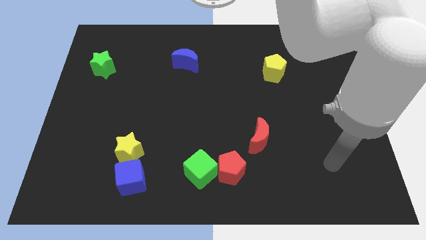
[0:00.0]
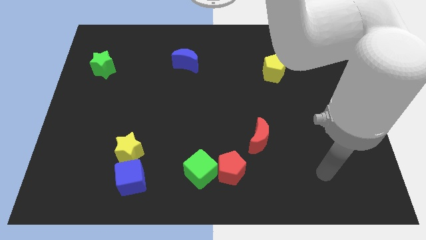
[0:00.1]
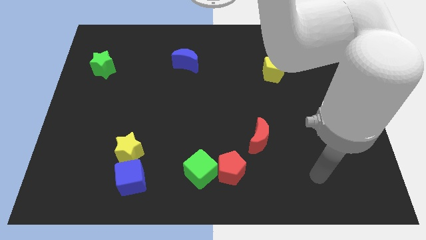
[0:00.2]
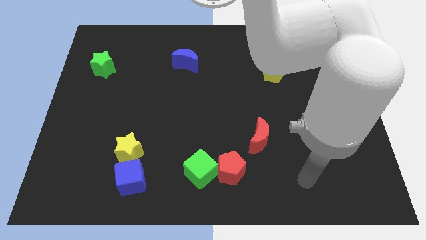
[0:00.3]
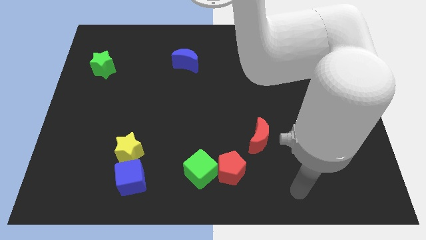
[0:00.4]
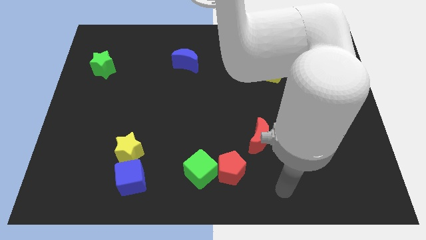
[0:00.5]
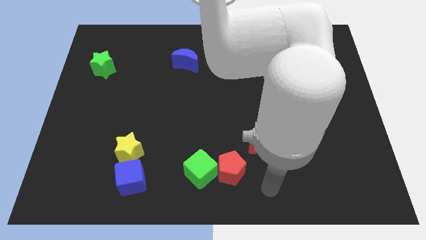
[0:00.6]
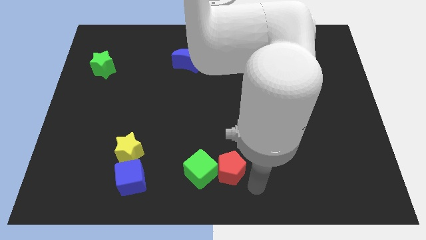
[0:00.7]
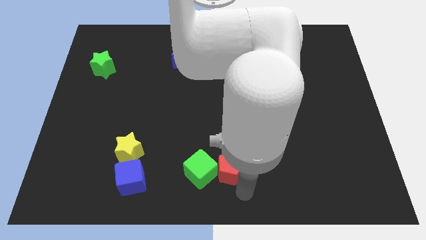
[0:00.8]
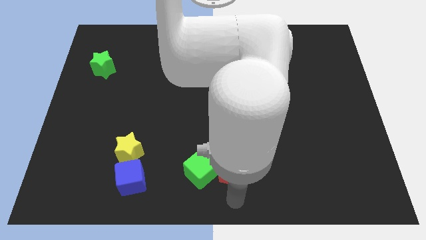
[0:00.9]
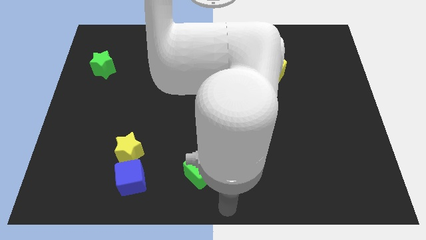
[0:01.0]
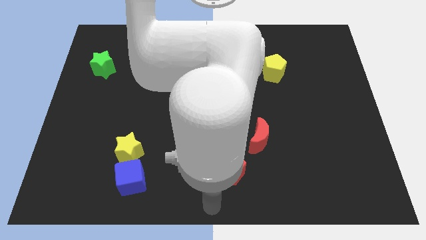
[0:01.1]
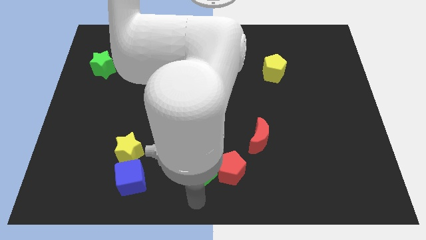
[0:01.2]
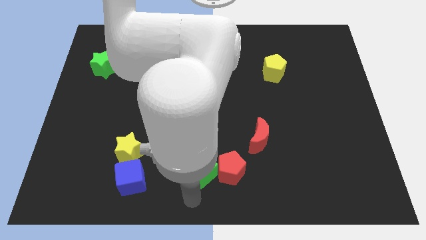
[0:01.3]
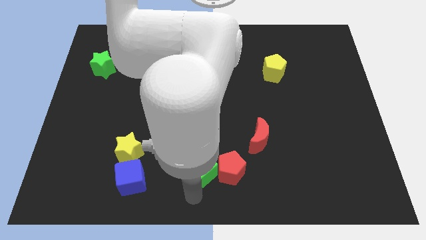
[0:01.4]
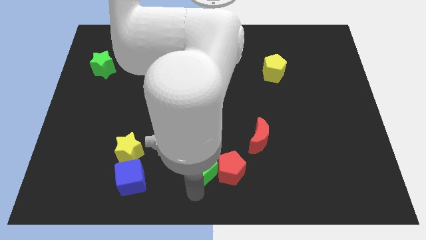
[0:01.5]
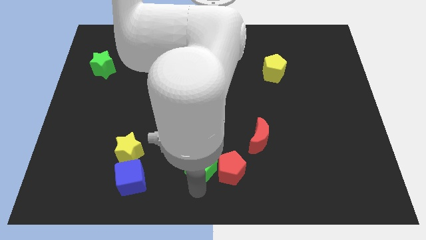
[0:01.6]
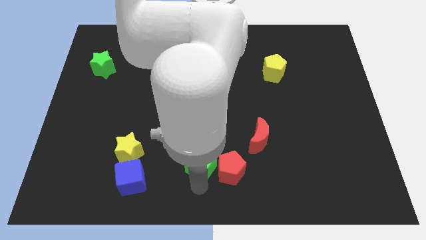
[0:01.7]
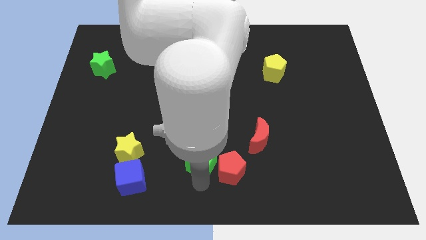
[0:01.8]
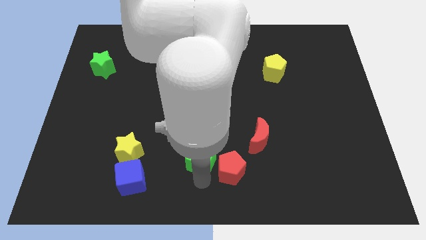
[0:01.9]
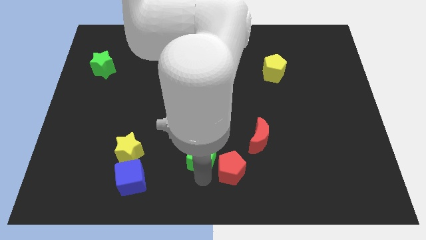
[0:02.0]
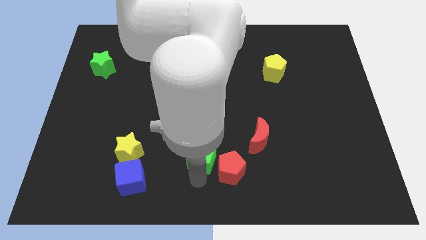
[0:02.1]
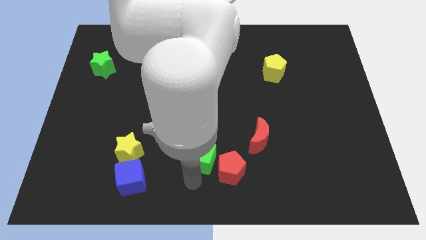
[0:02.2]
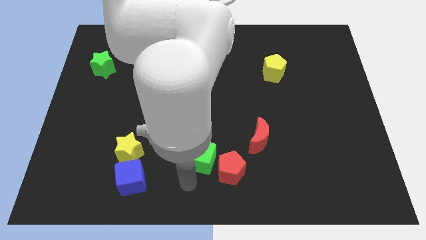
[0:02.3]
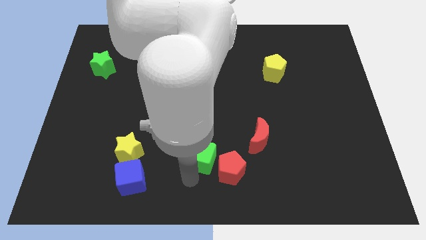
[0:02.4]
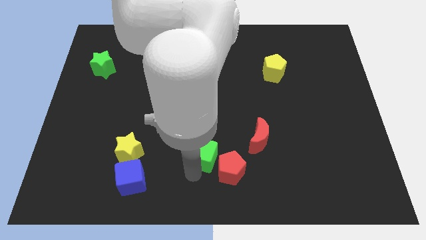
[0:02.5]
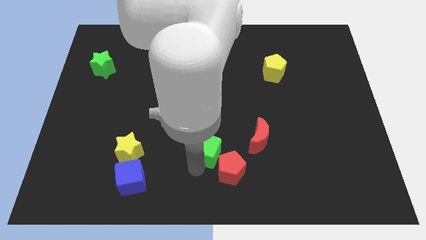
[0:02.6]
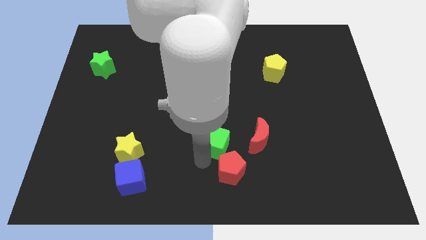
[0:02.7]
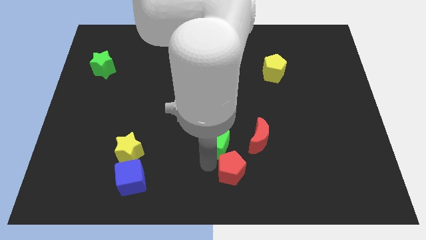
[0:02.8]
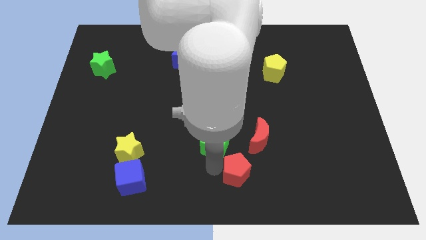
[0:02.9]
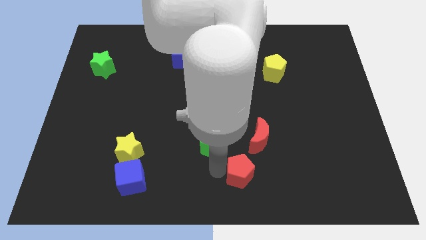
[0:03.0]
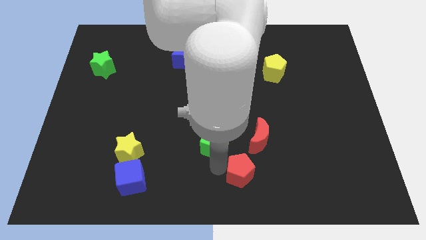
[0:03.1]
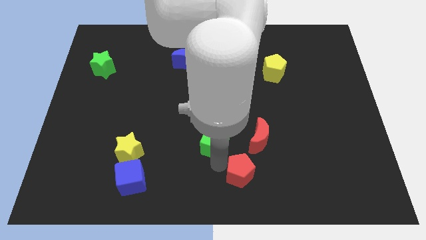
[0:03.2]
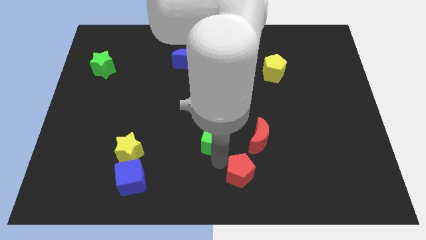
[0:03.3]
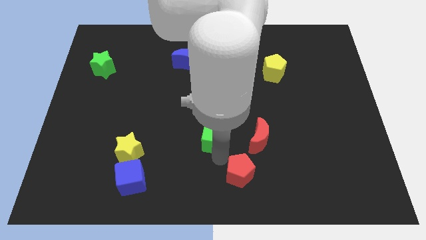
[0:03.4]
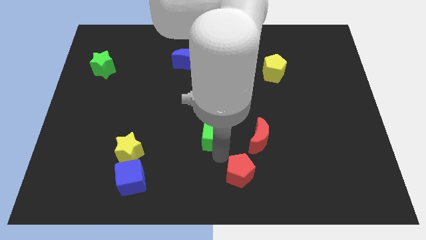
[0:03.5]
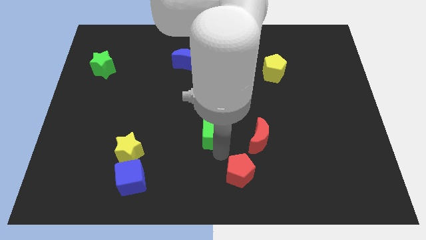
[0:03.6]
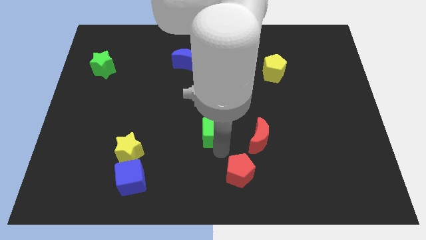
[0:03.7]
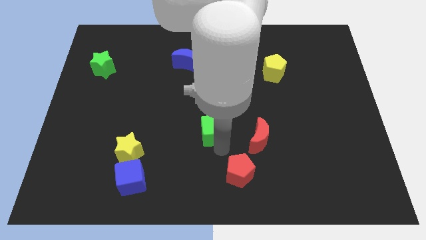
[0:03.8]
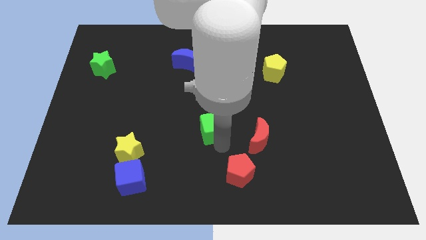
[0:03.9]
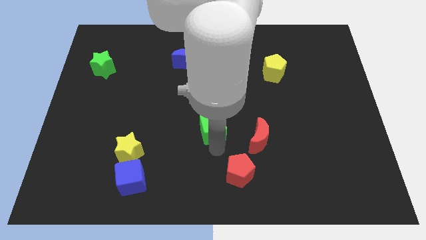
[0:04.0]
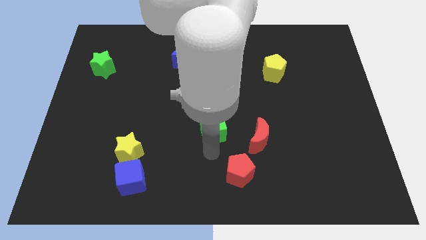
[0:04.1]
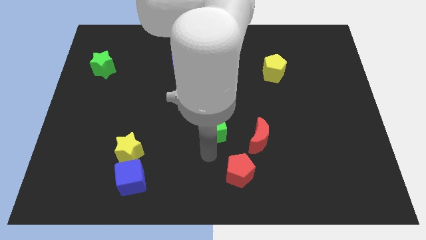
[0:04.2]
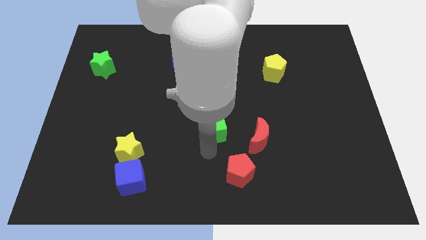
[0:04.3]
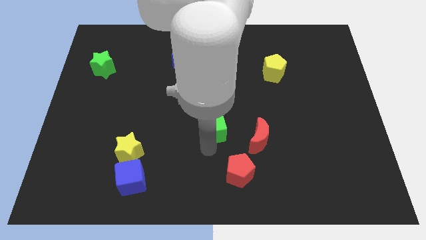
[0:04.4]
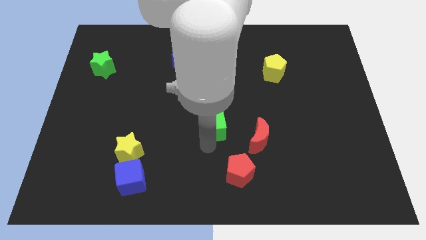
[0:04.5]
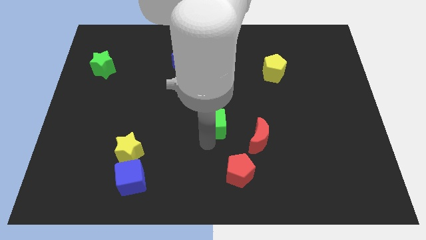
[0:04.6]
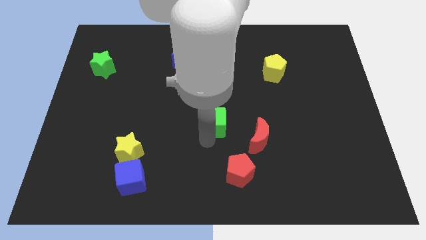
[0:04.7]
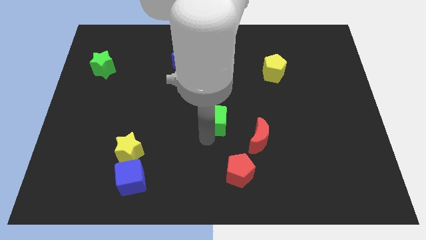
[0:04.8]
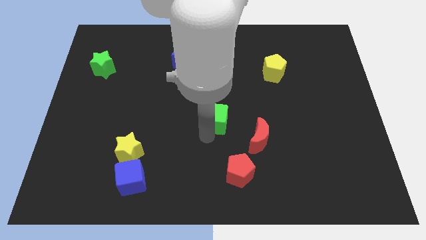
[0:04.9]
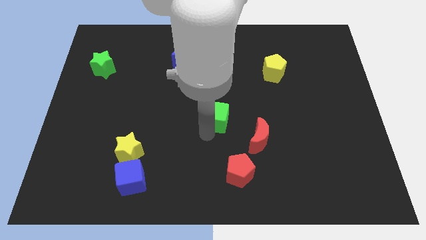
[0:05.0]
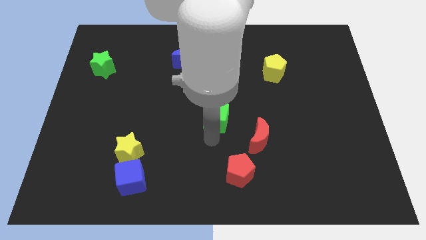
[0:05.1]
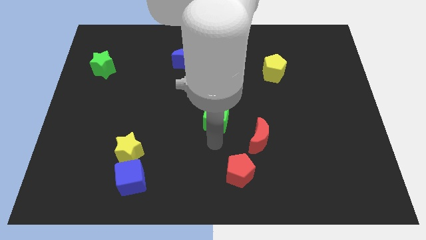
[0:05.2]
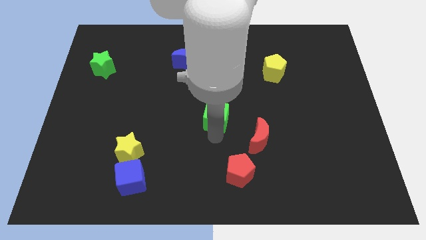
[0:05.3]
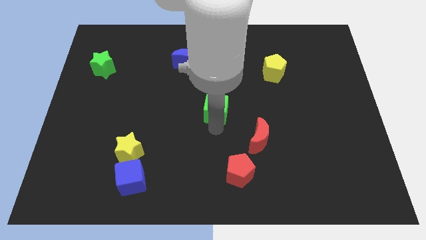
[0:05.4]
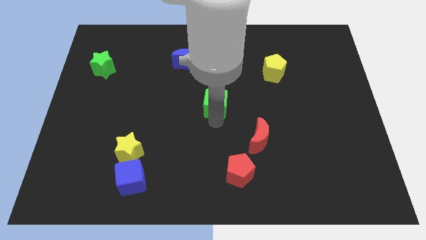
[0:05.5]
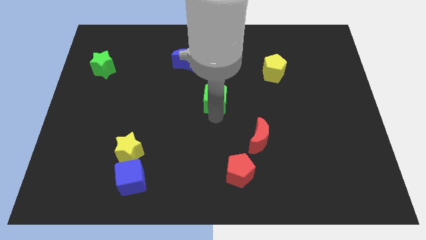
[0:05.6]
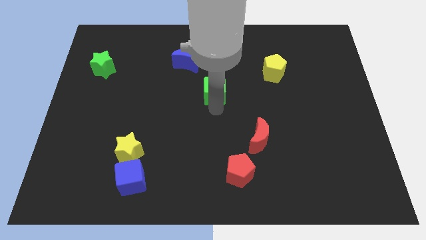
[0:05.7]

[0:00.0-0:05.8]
push the green cube upwards

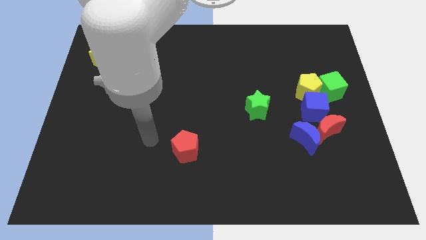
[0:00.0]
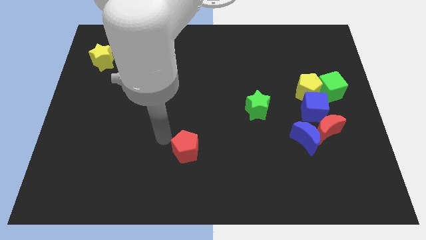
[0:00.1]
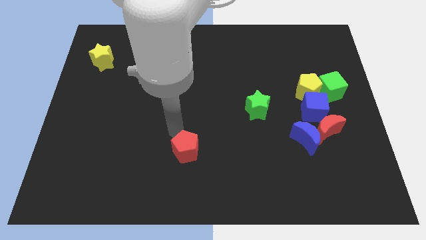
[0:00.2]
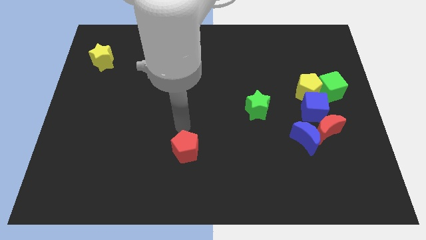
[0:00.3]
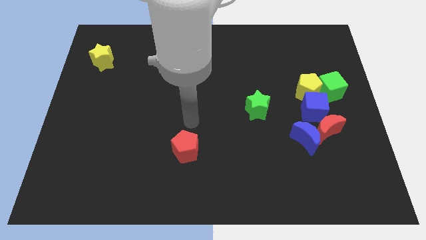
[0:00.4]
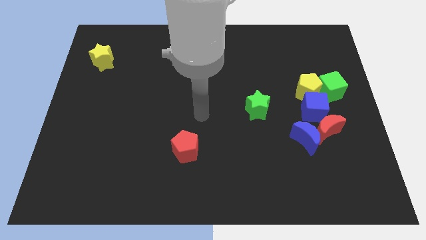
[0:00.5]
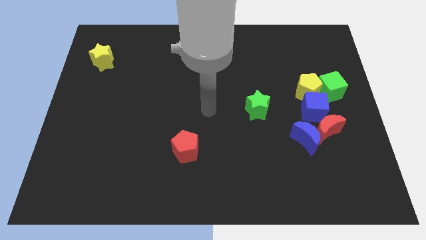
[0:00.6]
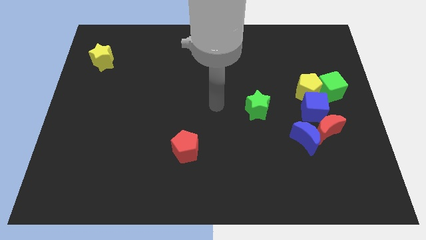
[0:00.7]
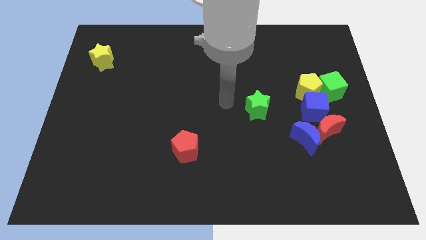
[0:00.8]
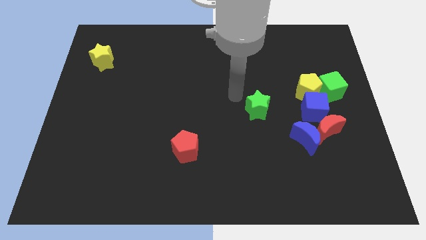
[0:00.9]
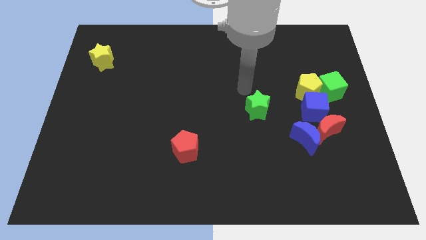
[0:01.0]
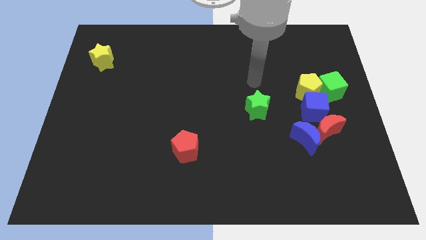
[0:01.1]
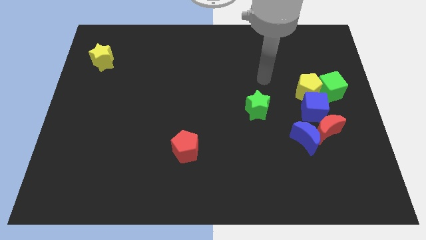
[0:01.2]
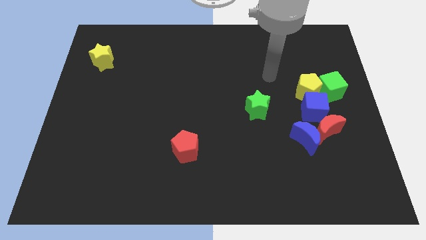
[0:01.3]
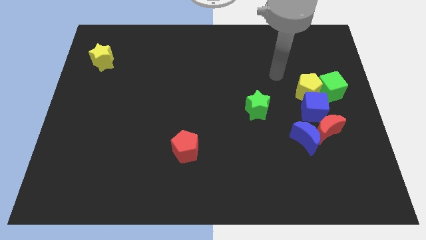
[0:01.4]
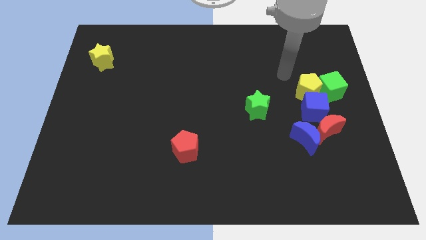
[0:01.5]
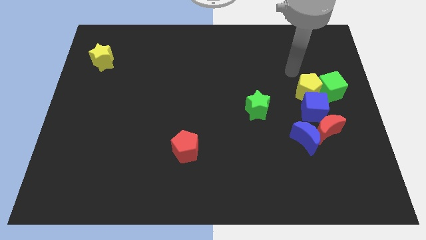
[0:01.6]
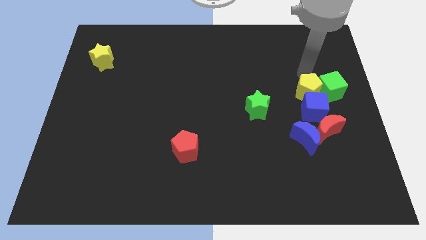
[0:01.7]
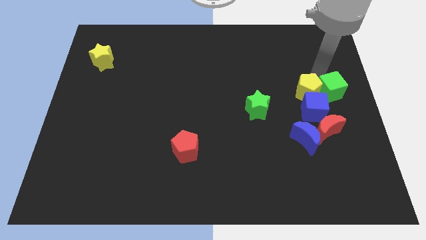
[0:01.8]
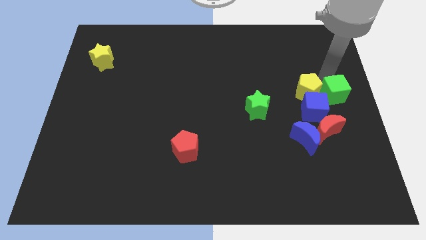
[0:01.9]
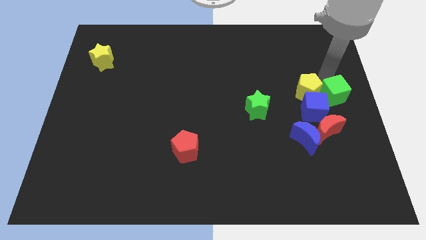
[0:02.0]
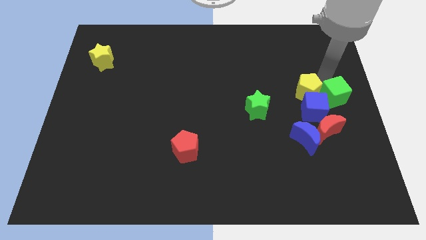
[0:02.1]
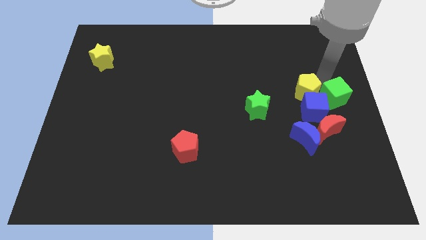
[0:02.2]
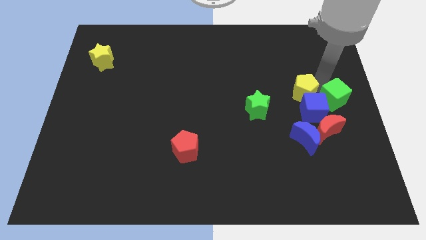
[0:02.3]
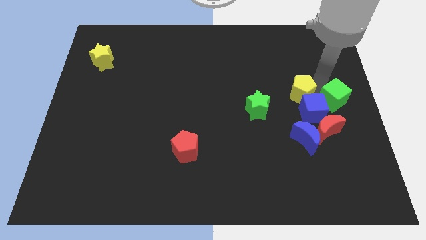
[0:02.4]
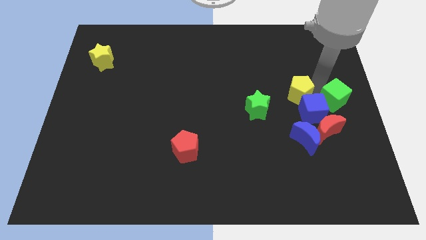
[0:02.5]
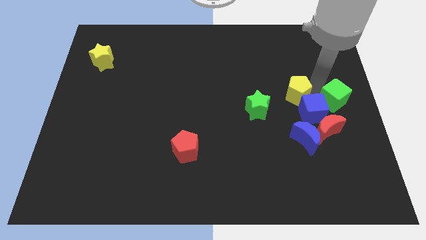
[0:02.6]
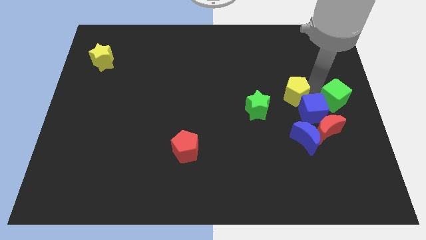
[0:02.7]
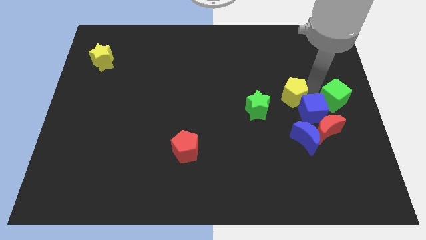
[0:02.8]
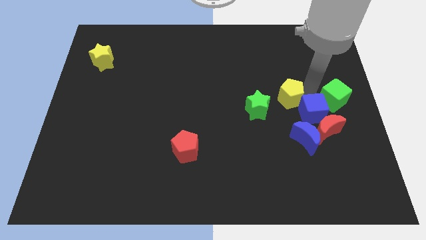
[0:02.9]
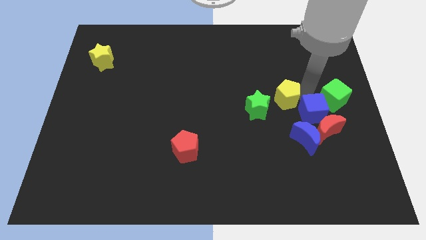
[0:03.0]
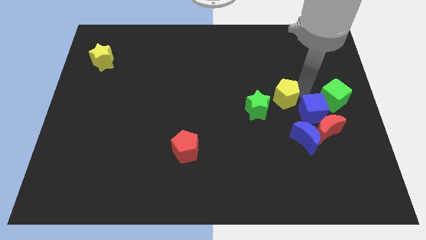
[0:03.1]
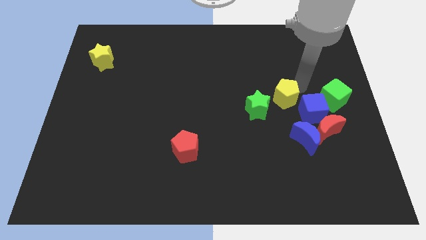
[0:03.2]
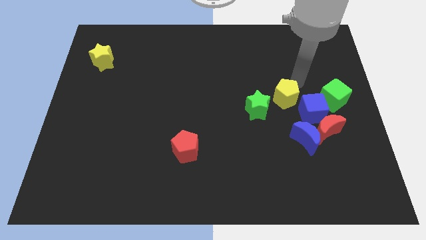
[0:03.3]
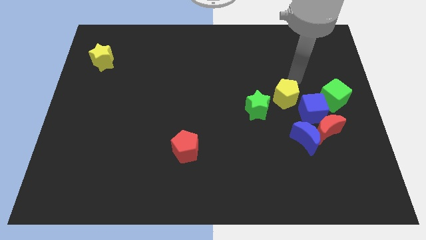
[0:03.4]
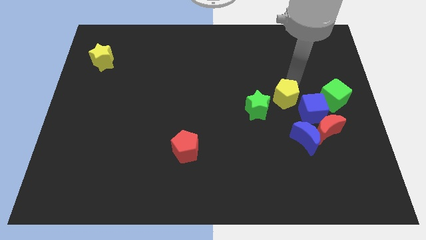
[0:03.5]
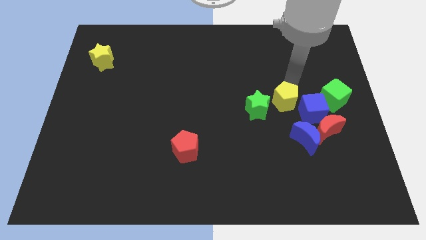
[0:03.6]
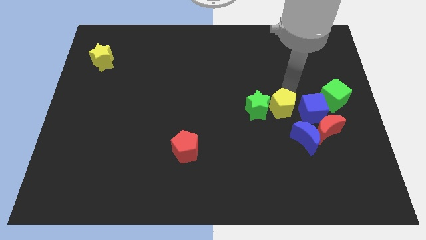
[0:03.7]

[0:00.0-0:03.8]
slide the yellow pentagon slightly down and to the left diagonally
